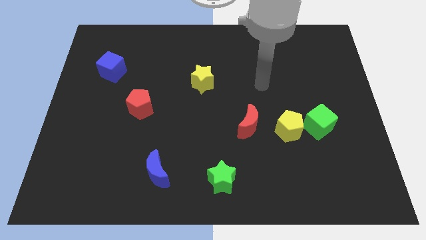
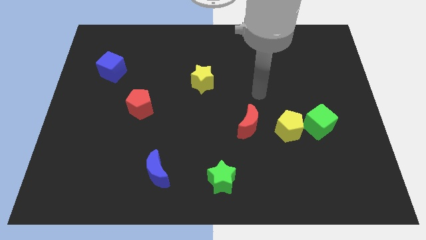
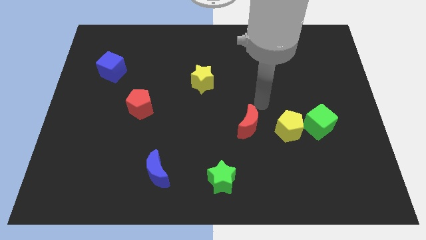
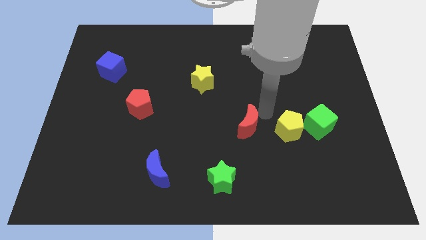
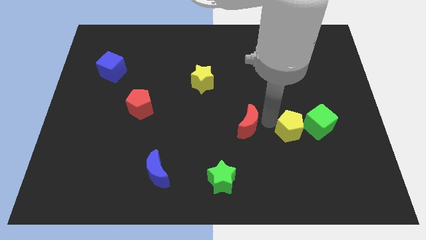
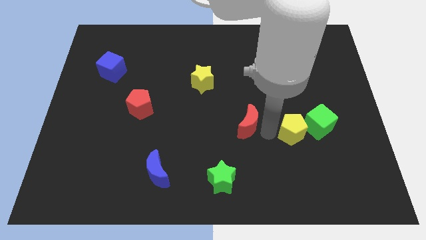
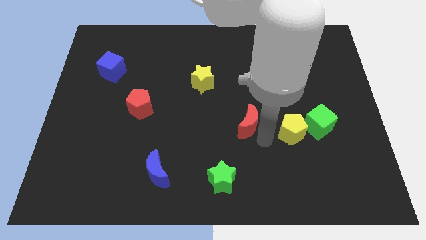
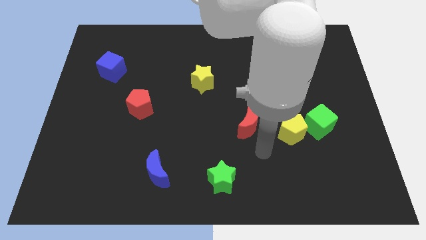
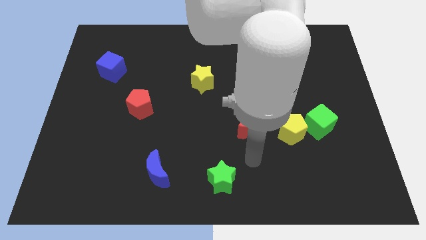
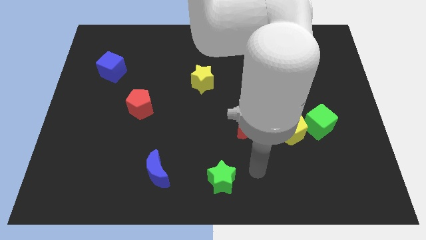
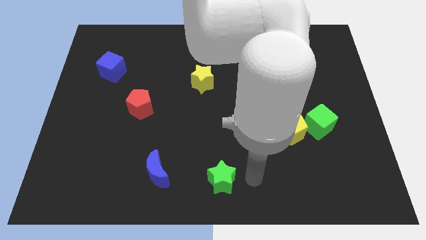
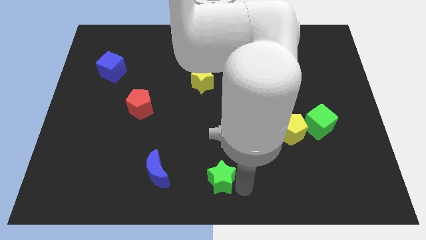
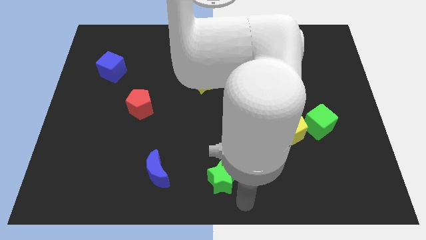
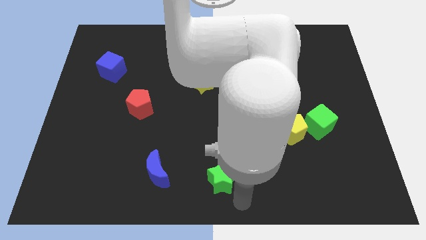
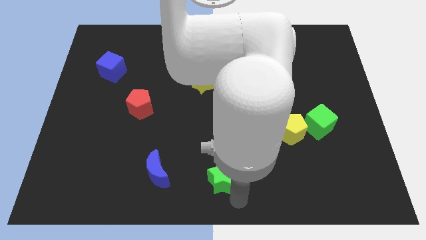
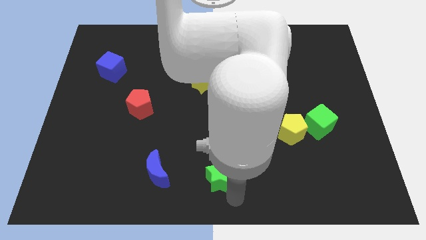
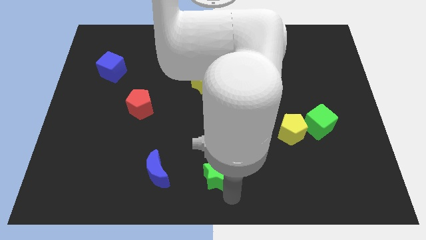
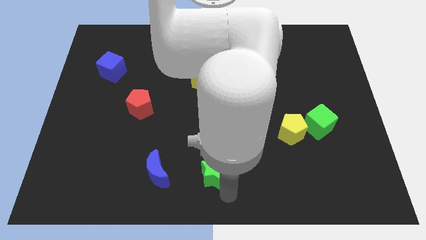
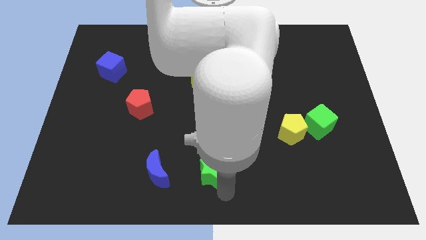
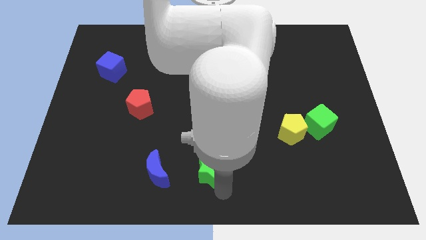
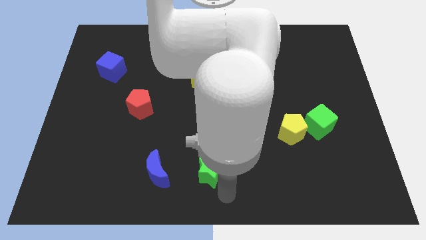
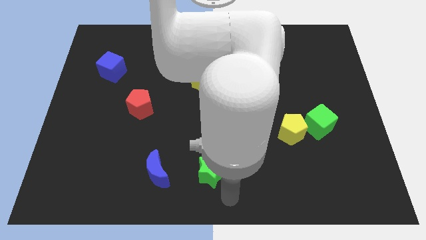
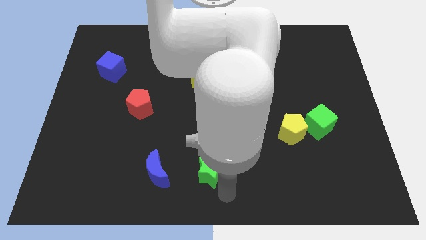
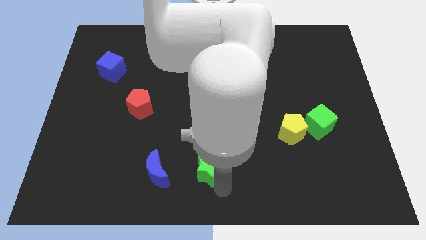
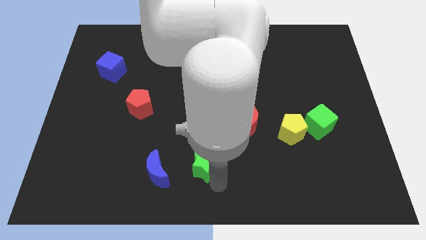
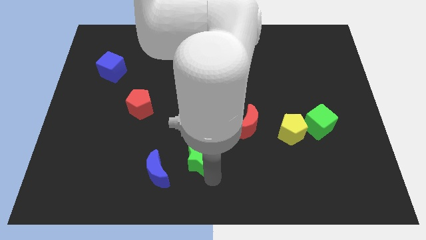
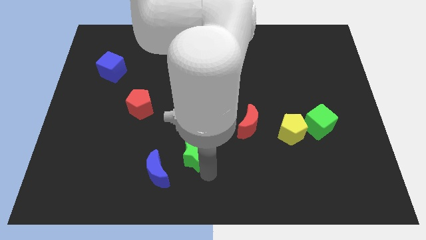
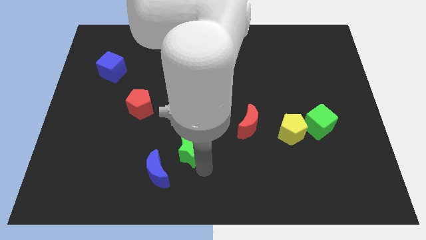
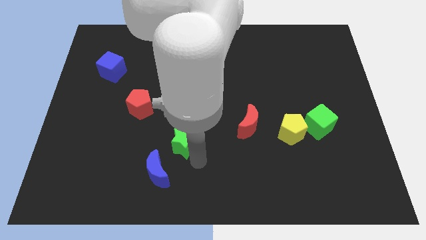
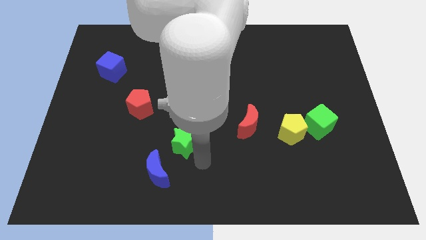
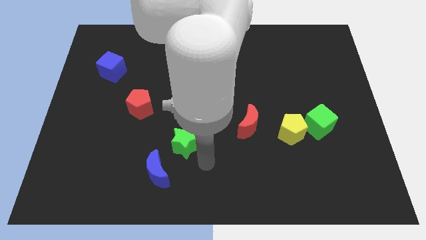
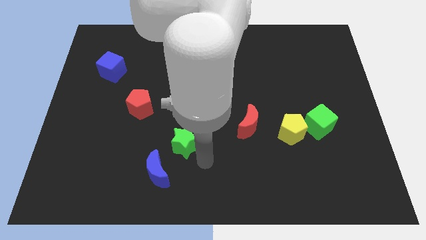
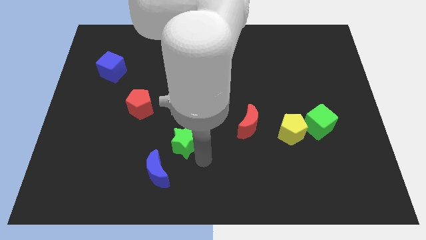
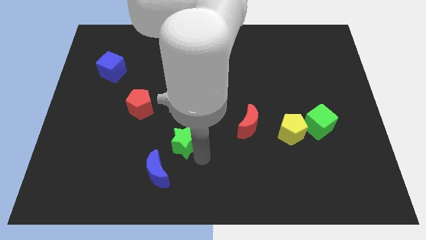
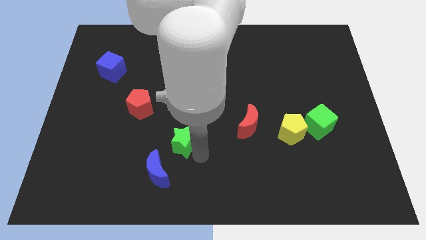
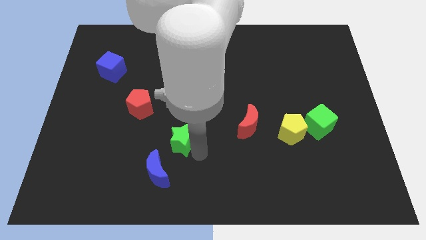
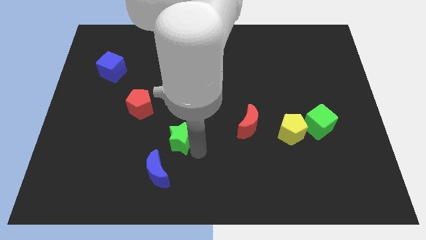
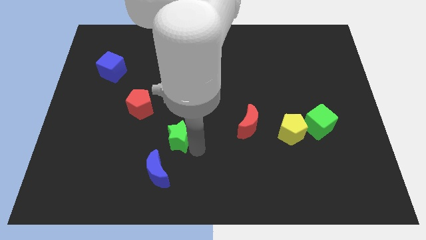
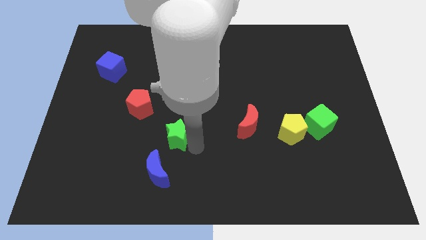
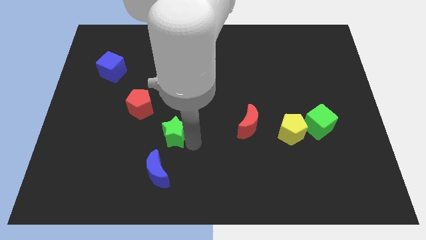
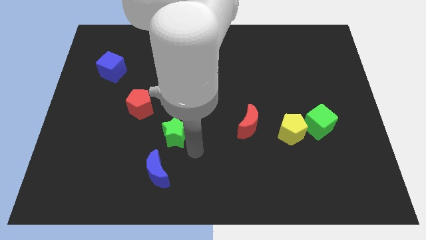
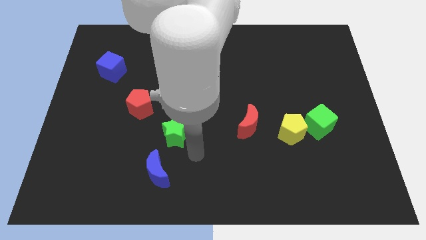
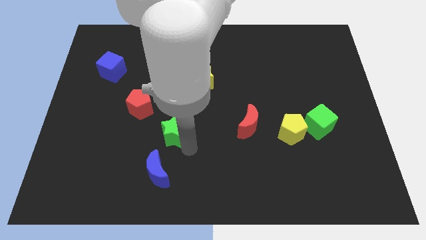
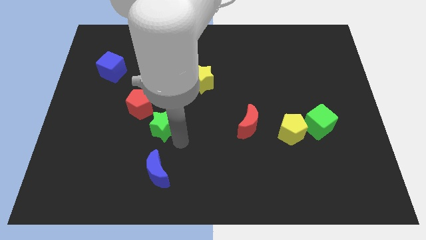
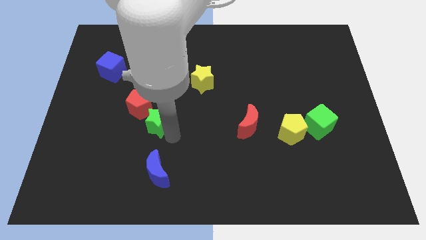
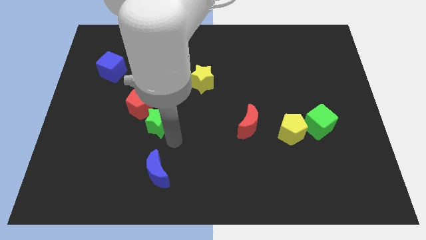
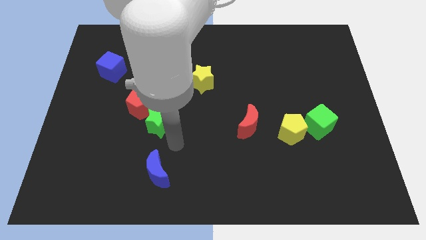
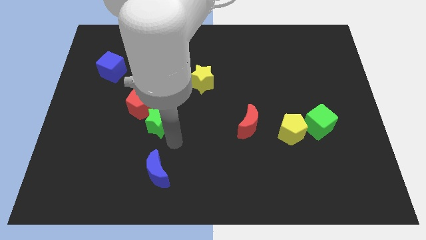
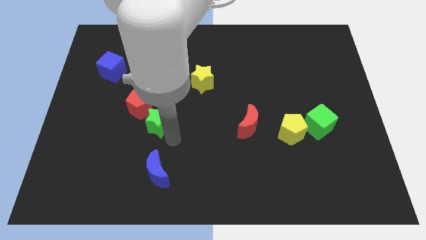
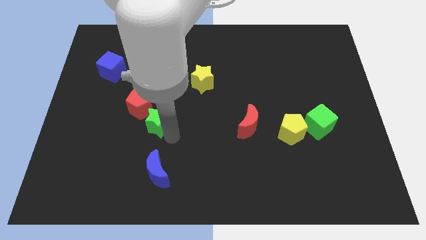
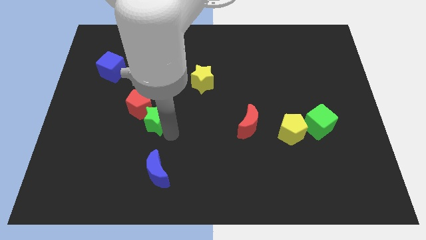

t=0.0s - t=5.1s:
push the green star towards the red pentagon

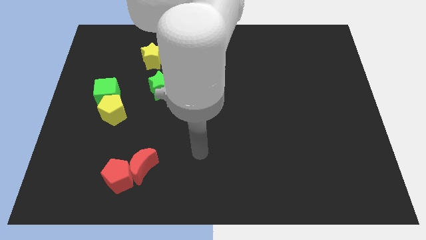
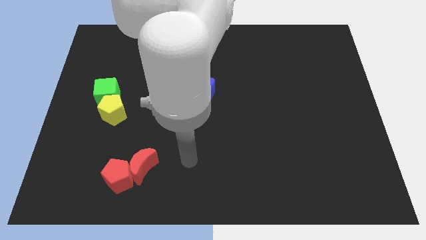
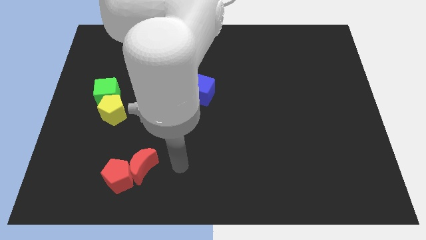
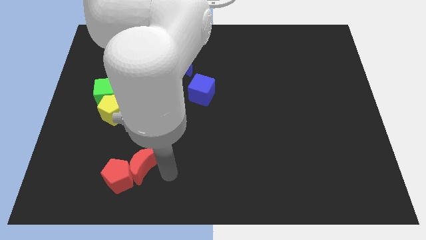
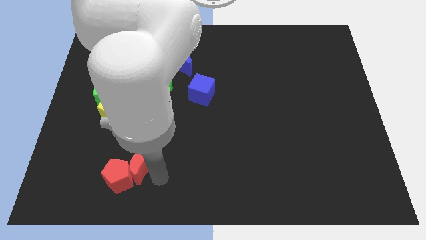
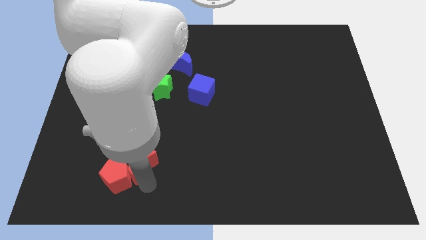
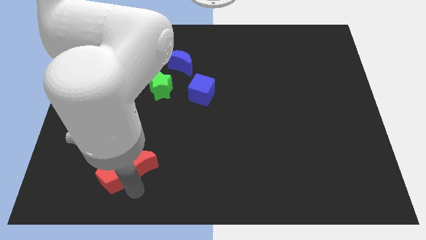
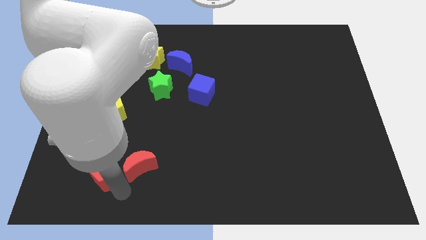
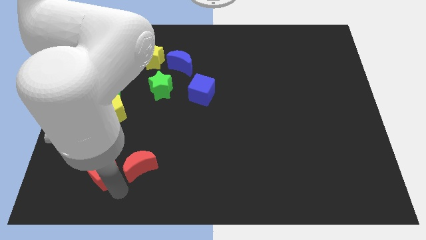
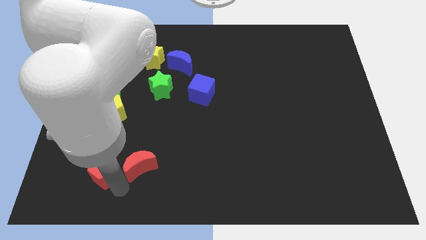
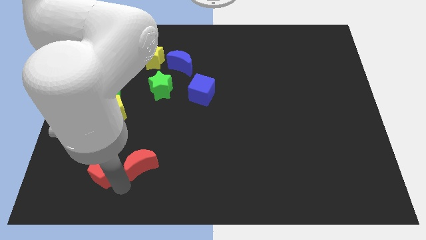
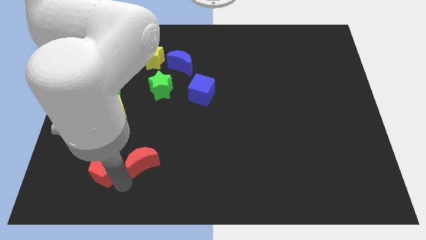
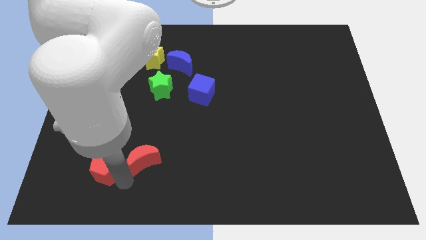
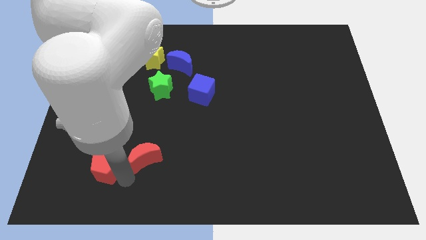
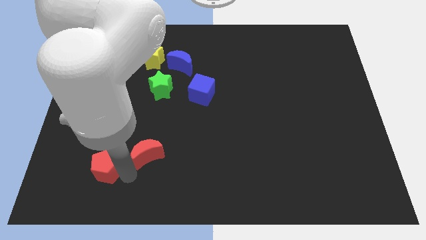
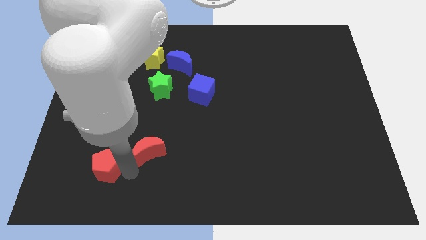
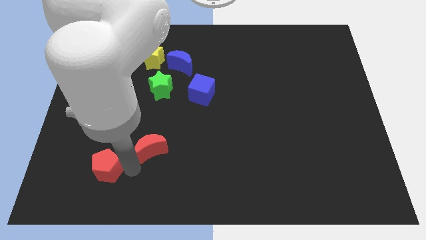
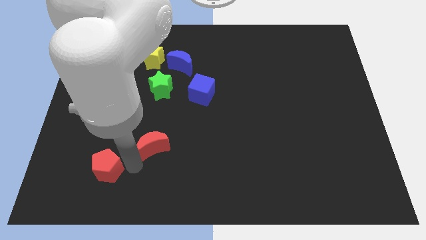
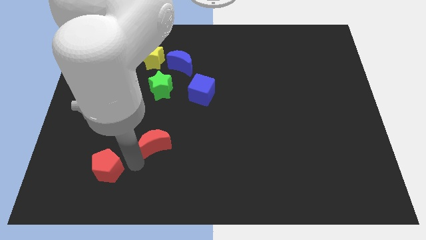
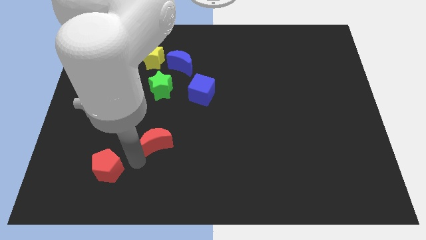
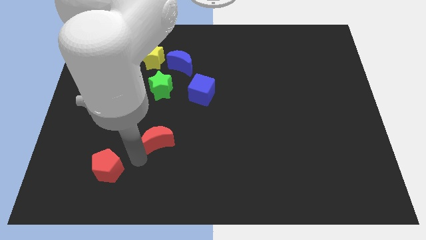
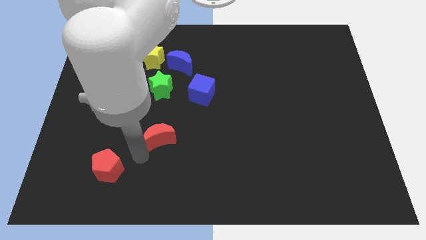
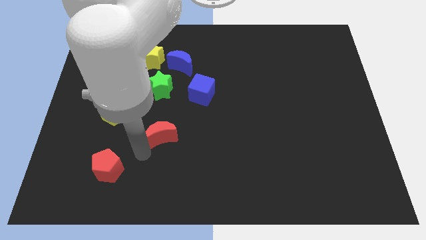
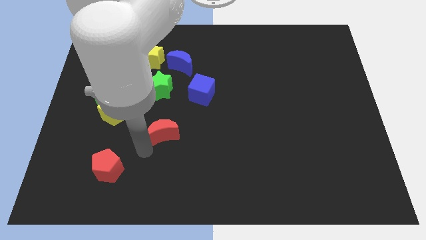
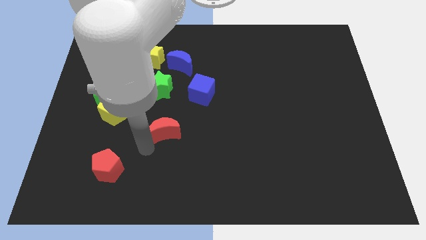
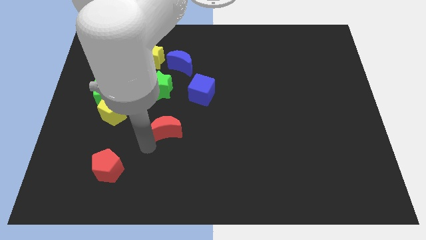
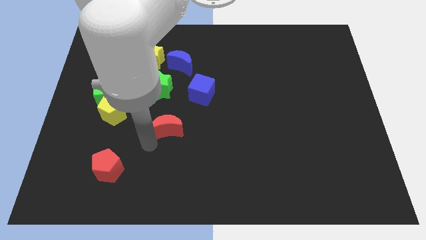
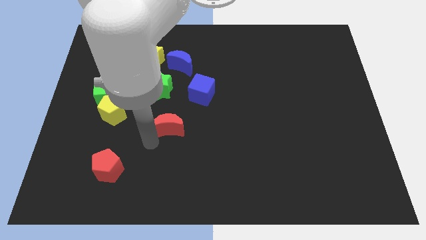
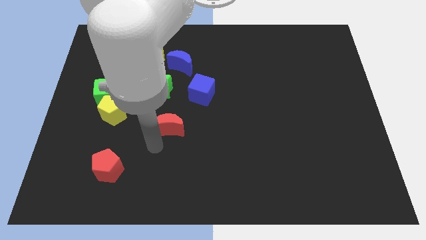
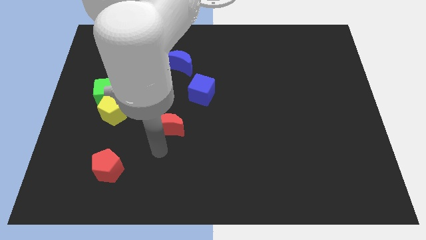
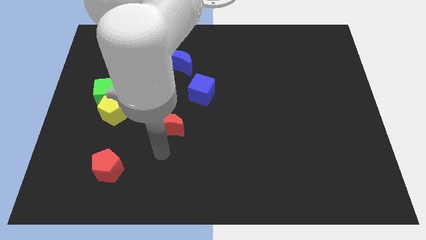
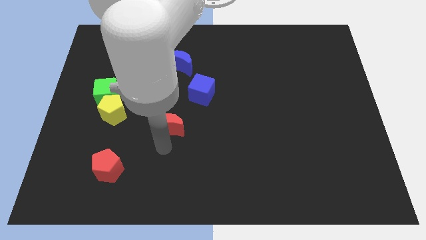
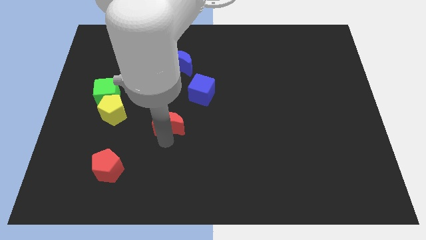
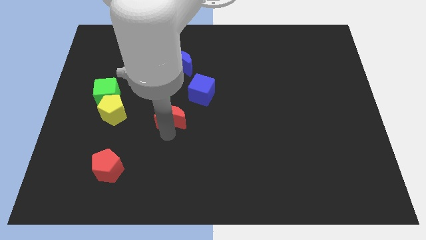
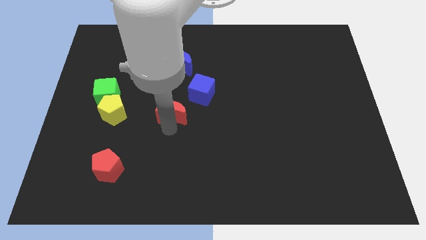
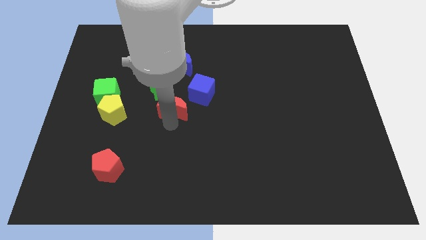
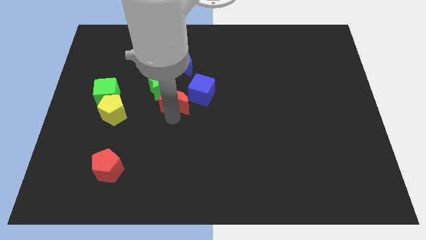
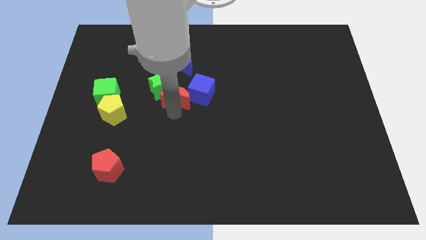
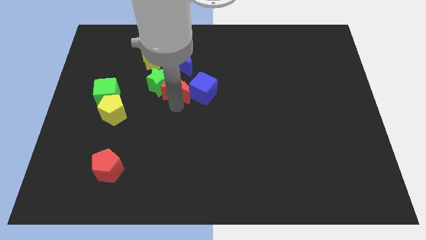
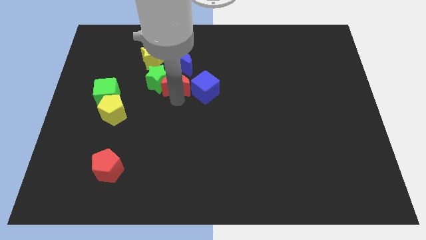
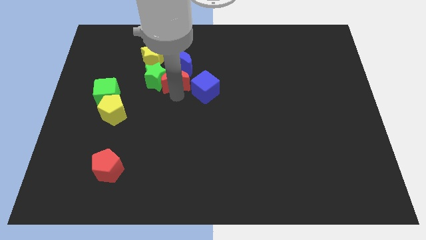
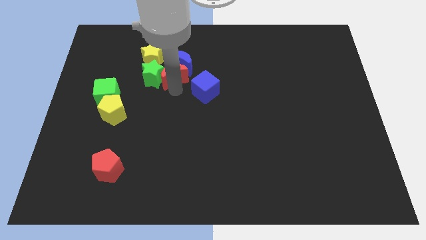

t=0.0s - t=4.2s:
push the red moon to the blue moon
